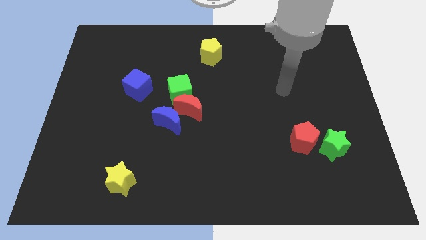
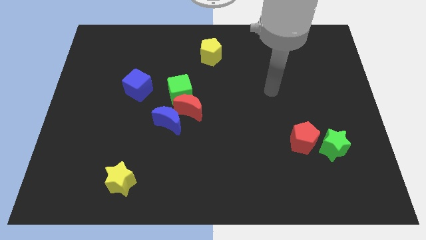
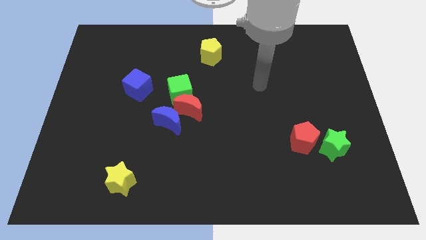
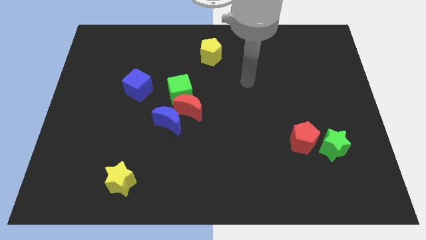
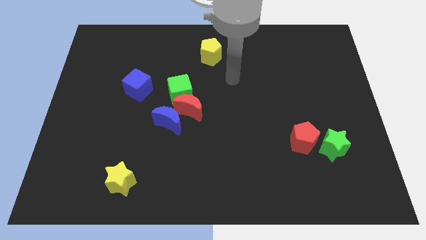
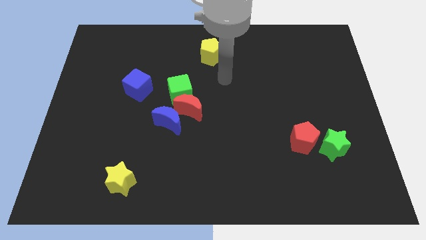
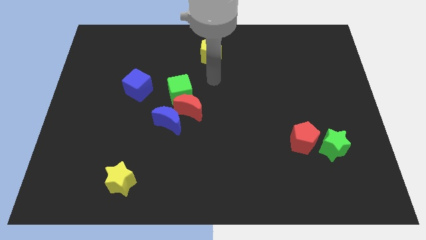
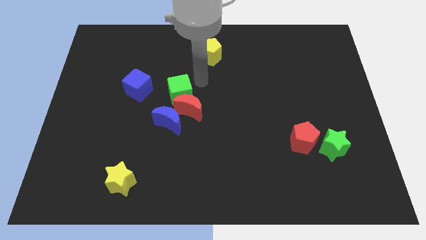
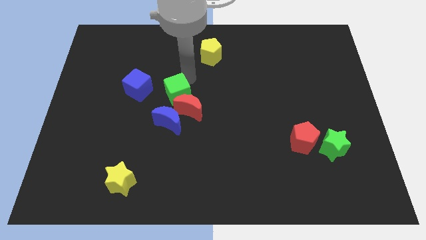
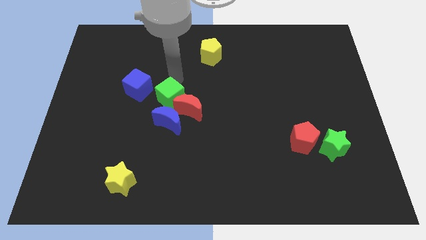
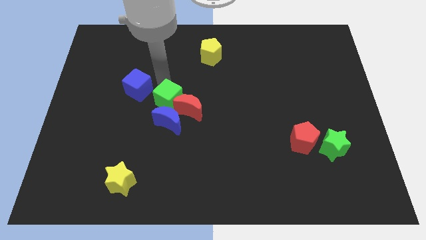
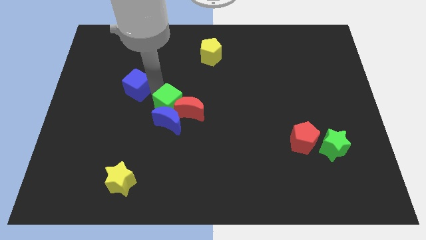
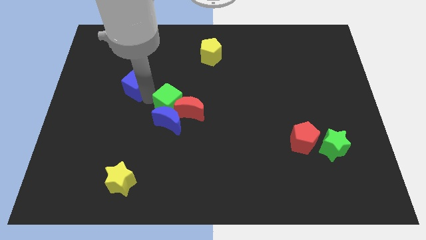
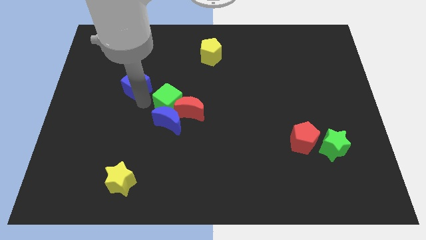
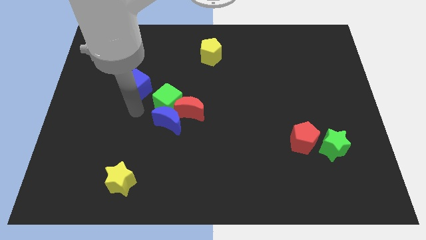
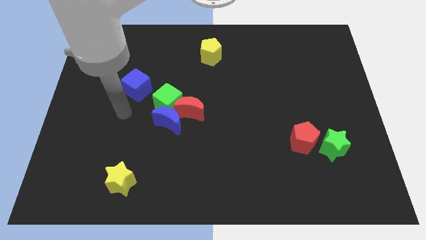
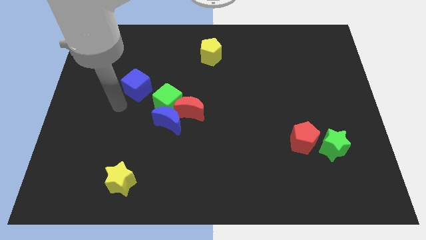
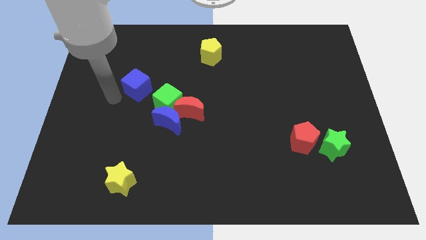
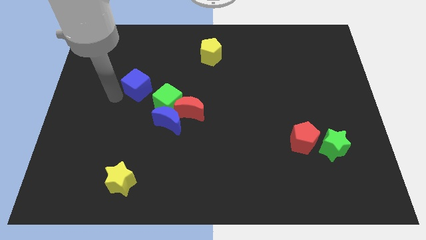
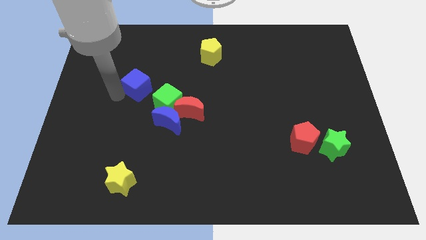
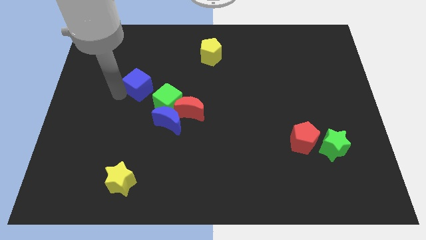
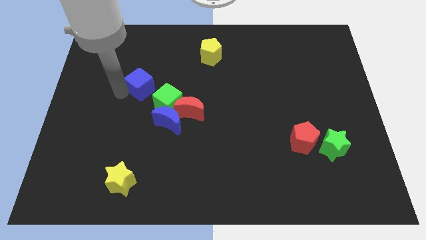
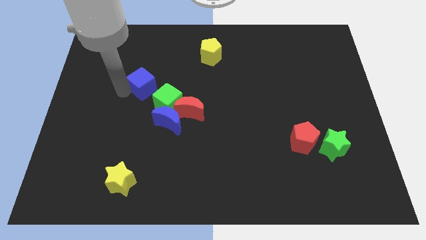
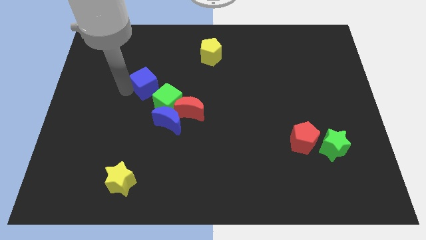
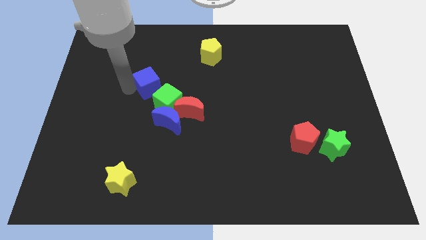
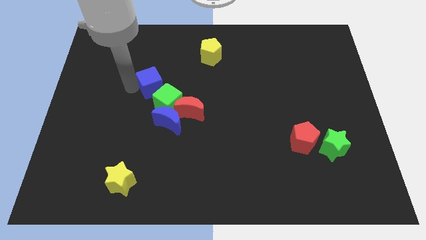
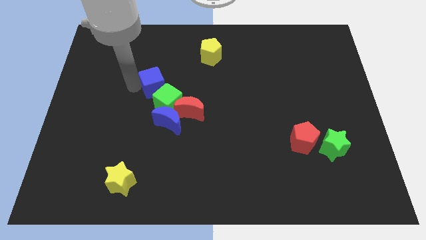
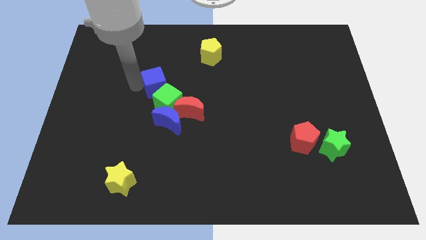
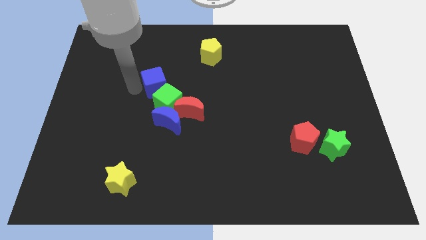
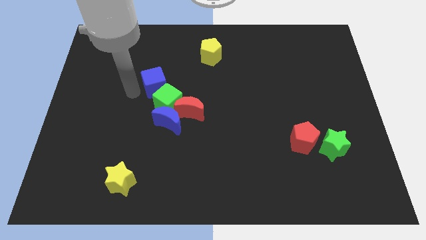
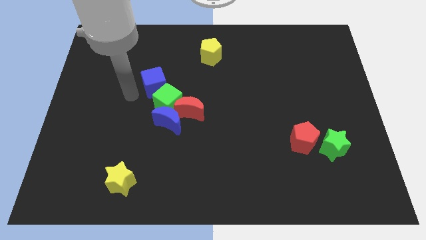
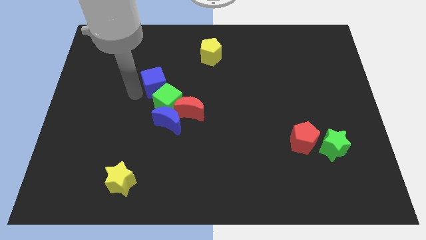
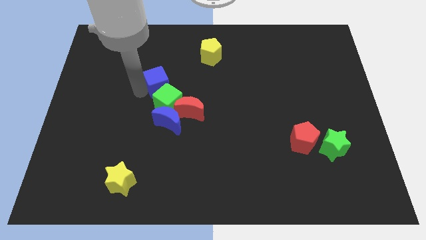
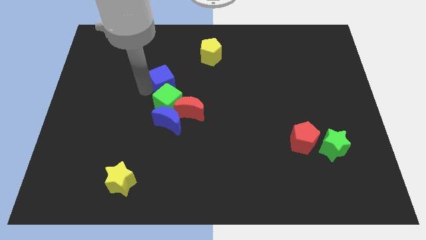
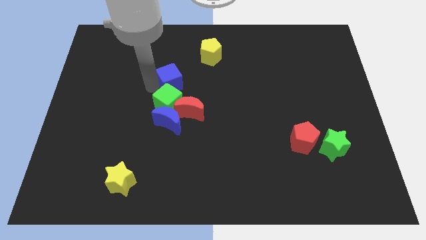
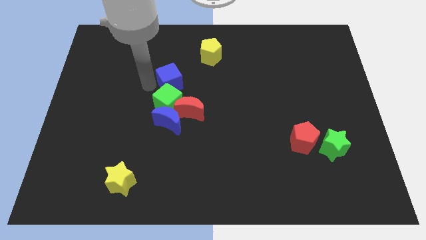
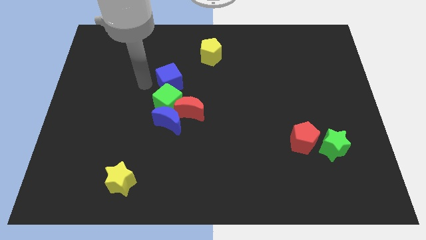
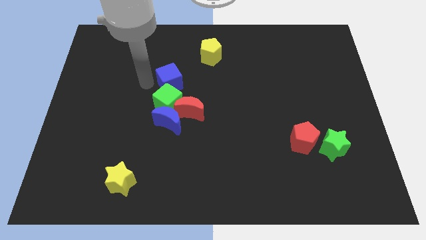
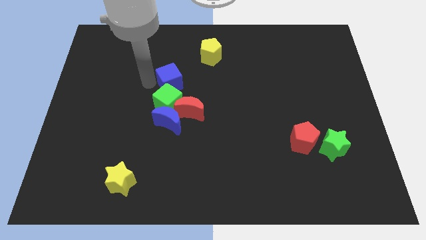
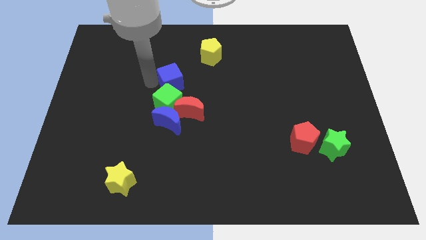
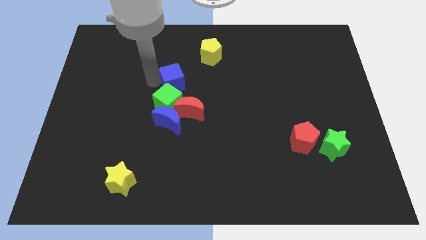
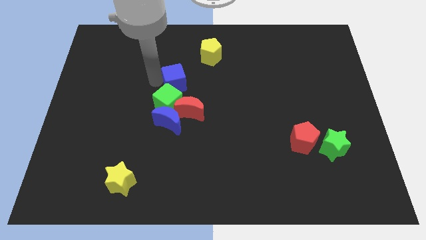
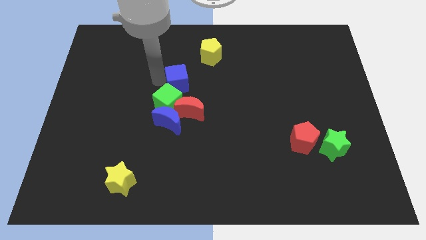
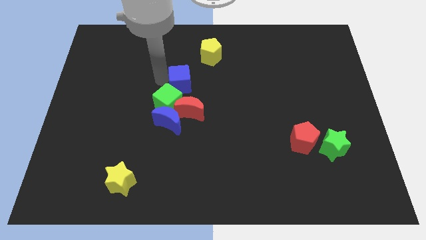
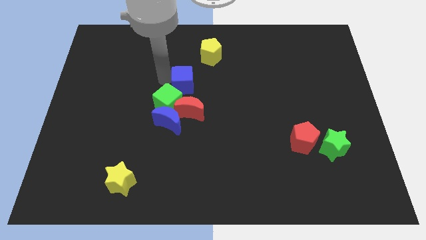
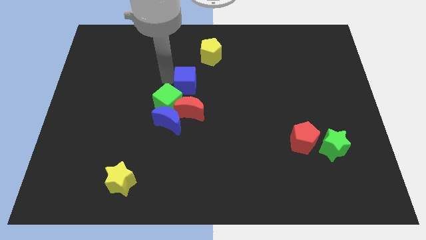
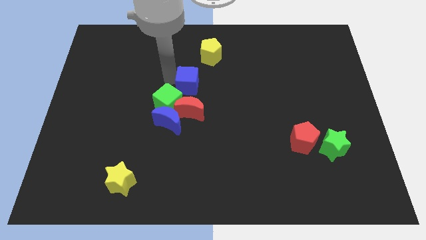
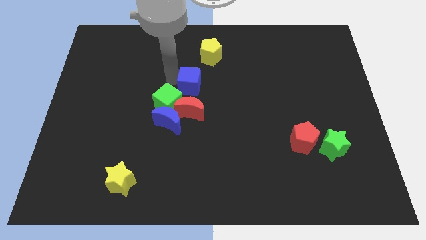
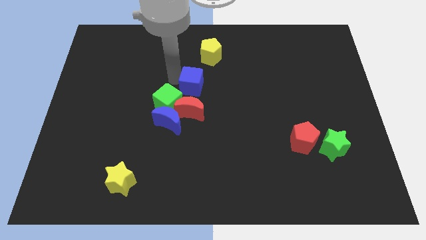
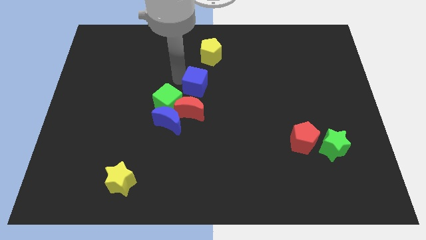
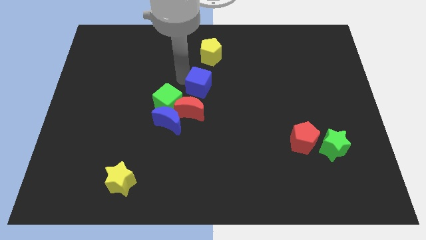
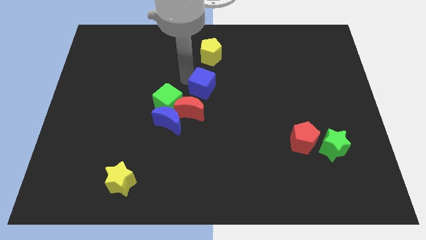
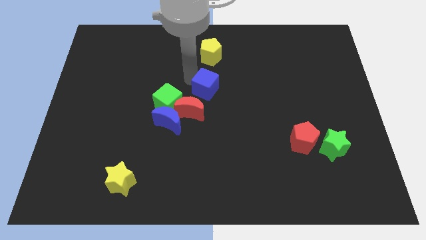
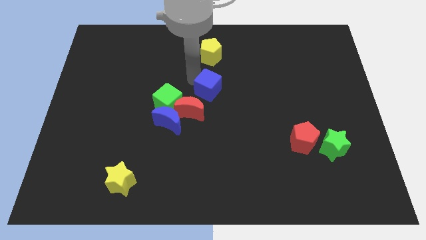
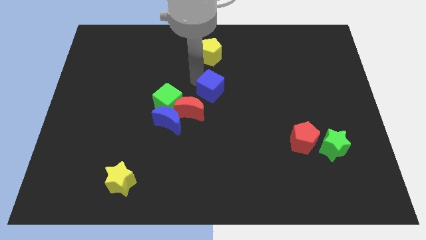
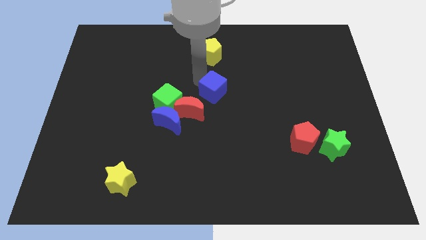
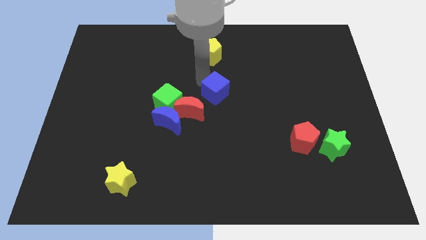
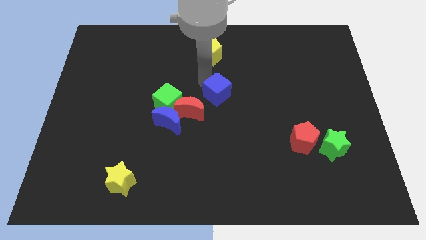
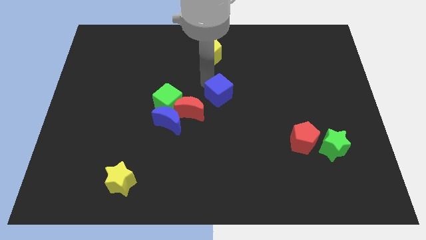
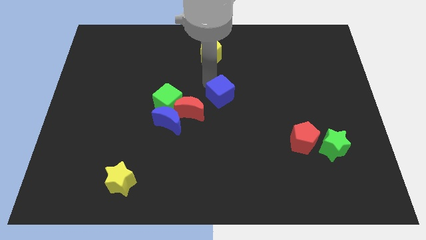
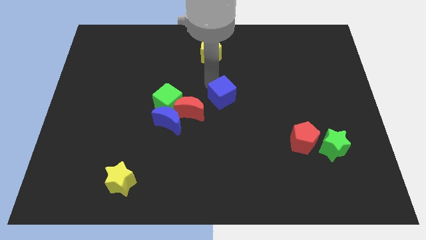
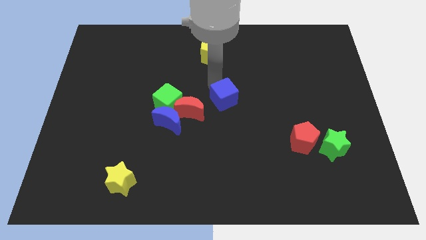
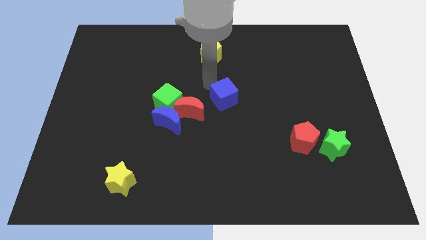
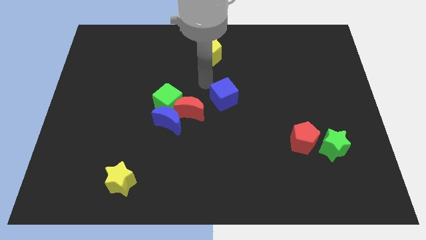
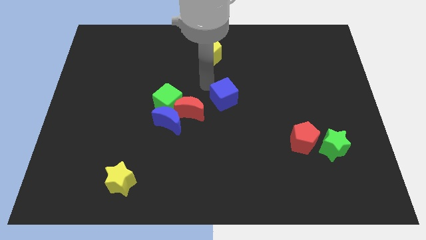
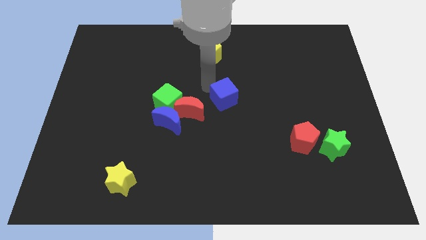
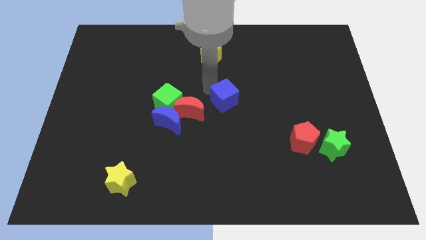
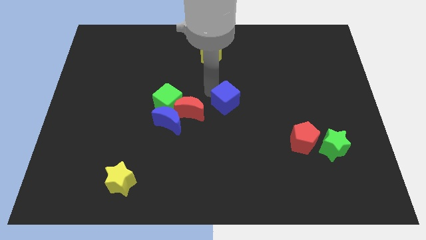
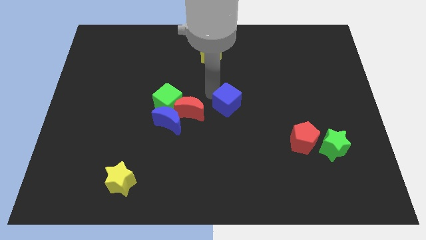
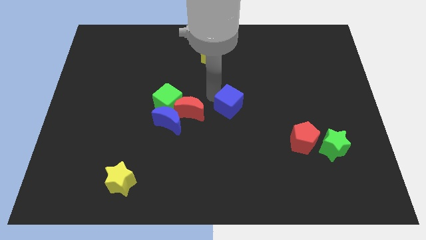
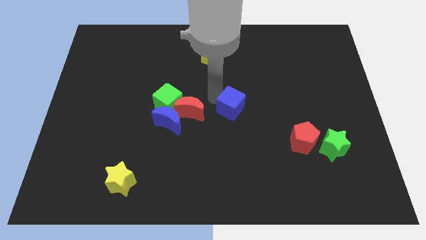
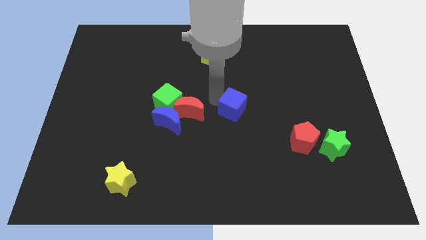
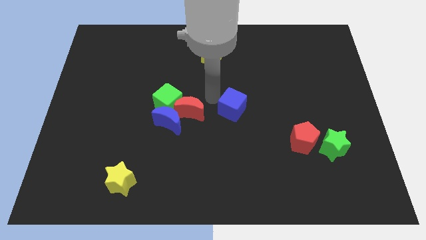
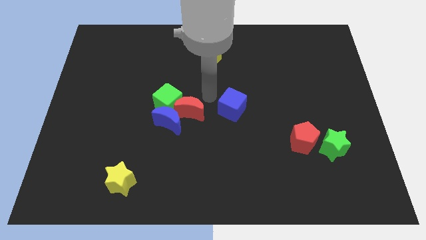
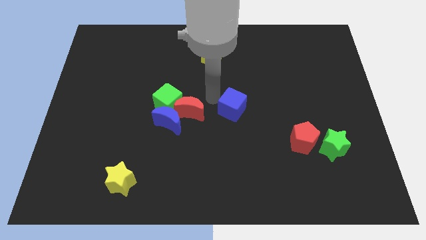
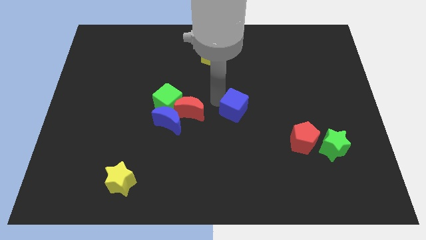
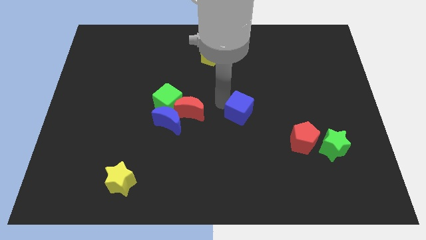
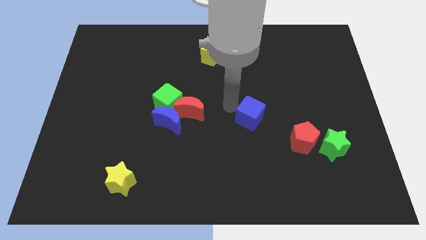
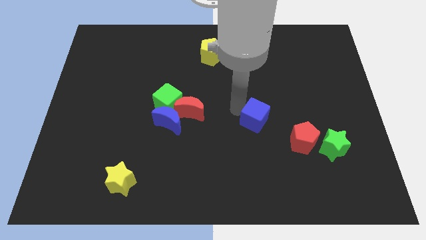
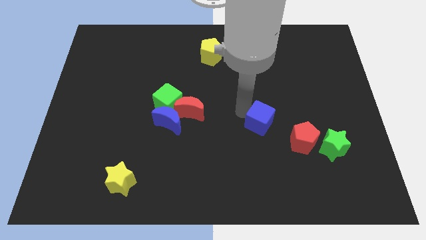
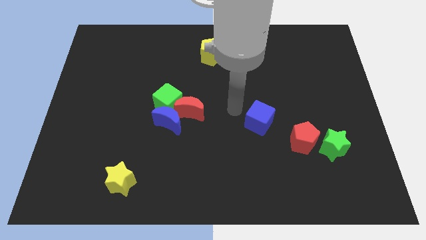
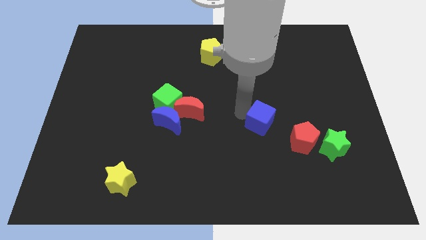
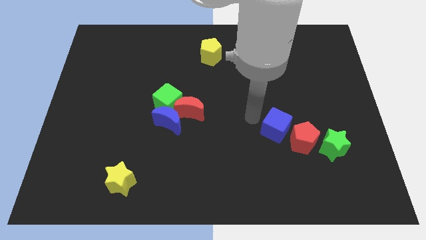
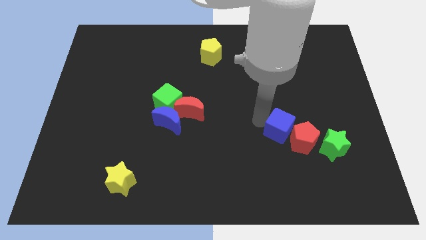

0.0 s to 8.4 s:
push the blue cube towards the red pentagon
